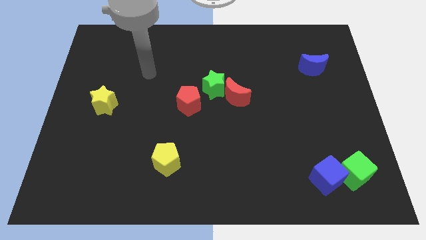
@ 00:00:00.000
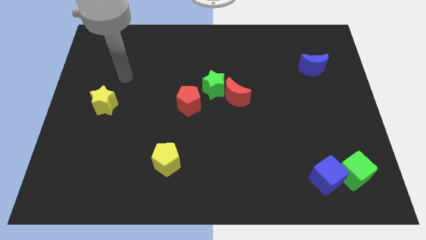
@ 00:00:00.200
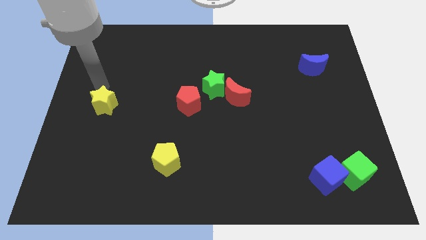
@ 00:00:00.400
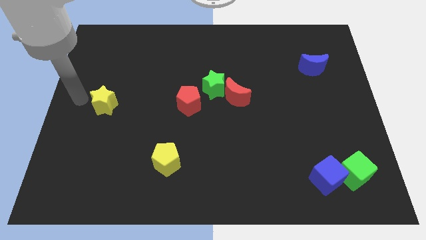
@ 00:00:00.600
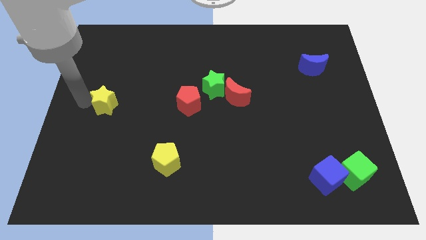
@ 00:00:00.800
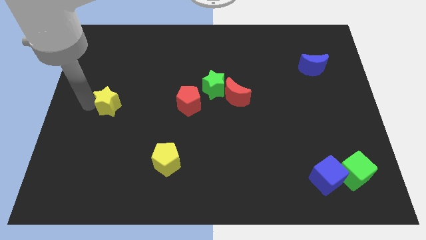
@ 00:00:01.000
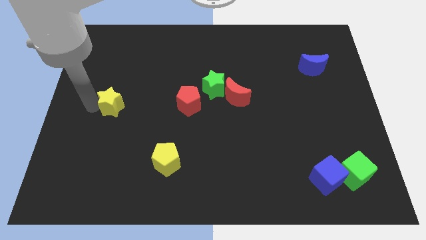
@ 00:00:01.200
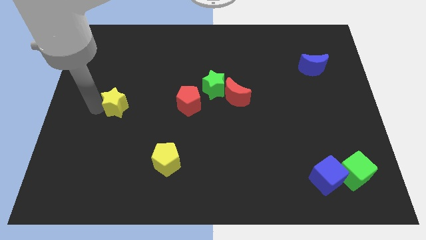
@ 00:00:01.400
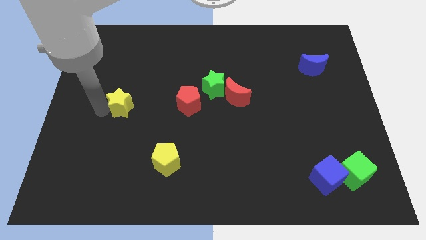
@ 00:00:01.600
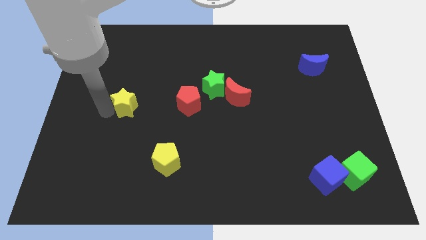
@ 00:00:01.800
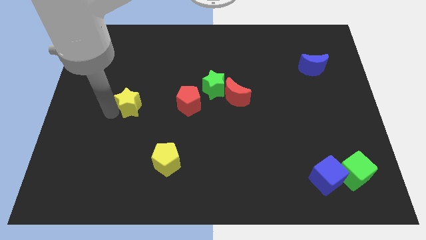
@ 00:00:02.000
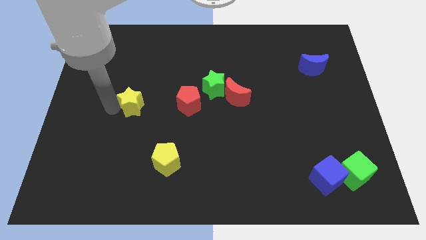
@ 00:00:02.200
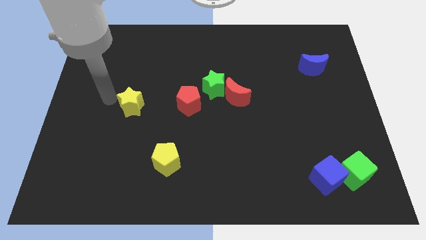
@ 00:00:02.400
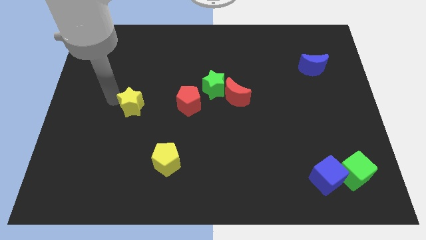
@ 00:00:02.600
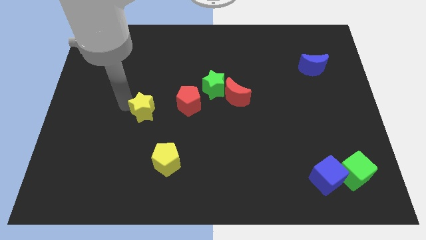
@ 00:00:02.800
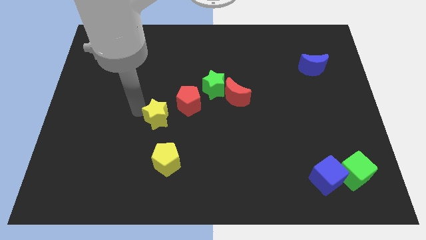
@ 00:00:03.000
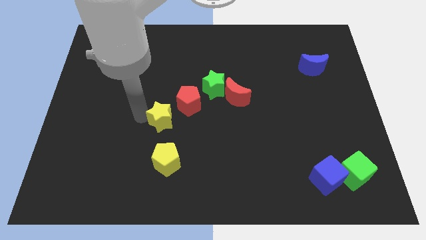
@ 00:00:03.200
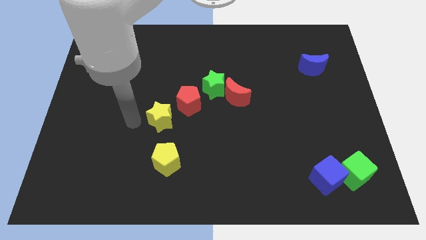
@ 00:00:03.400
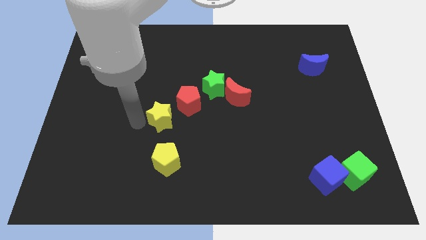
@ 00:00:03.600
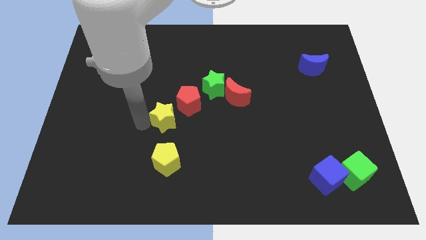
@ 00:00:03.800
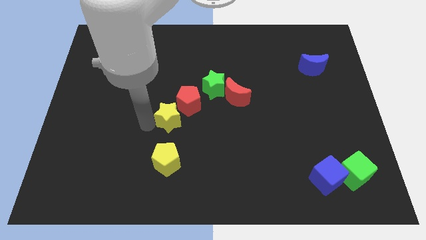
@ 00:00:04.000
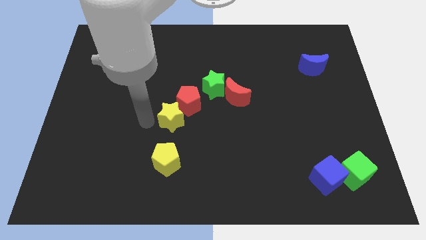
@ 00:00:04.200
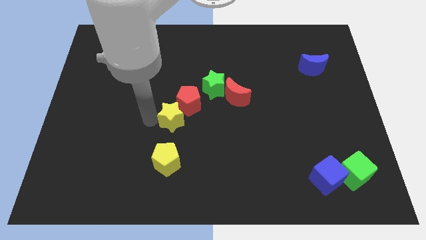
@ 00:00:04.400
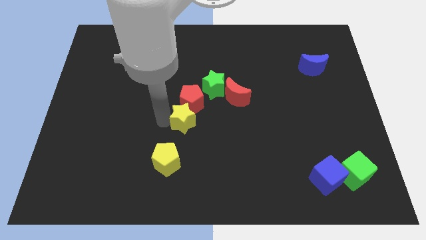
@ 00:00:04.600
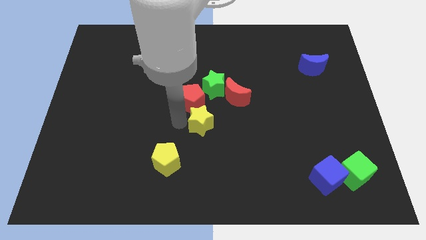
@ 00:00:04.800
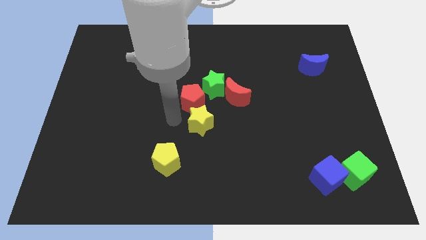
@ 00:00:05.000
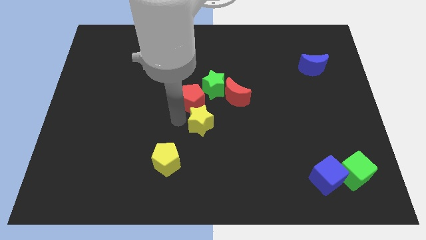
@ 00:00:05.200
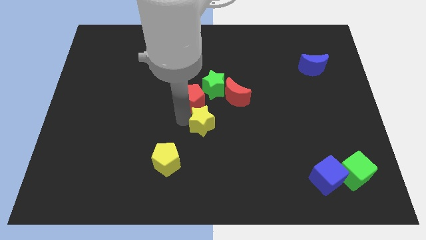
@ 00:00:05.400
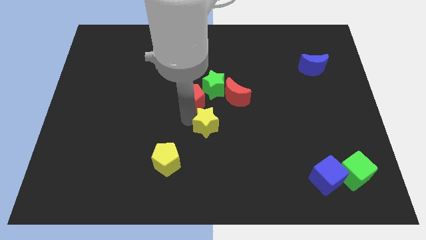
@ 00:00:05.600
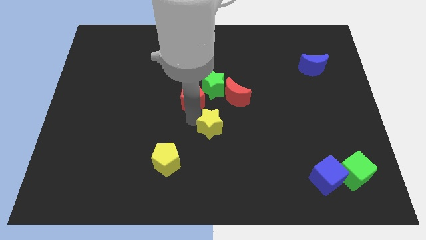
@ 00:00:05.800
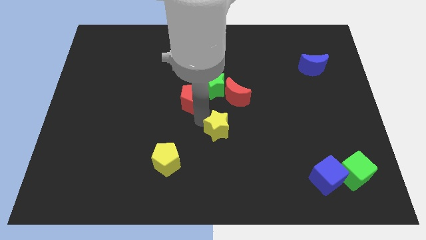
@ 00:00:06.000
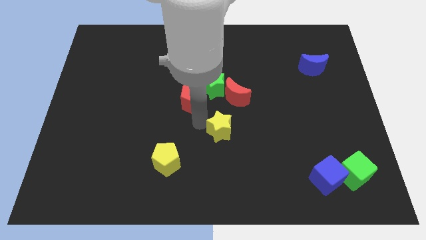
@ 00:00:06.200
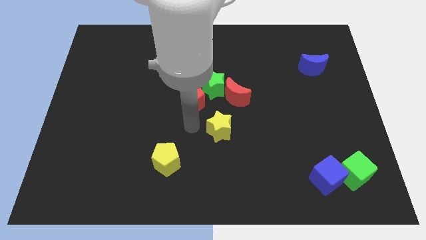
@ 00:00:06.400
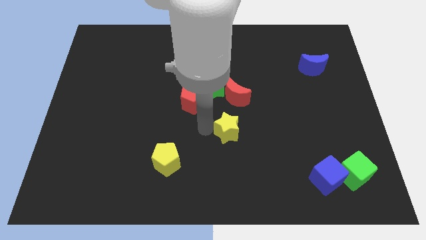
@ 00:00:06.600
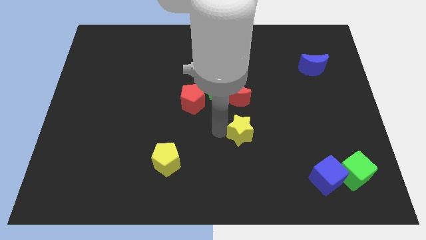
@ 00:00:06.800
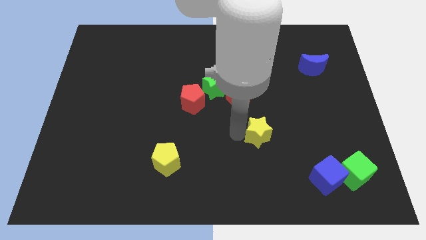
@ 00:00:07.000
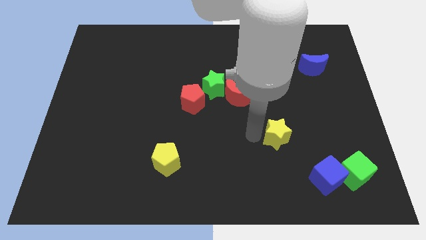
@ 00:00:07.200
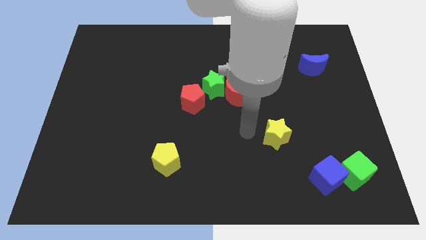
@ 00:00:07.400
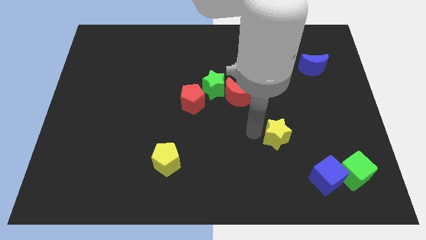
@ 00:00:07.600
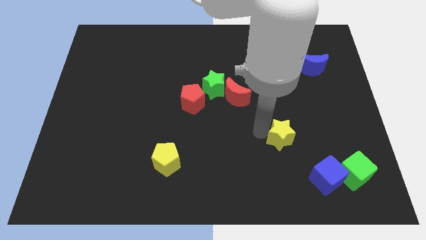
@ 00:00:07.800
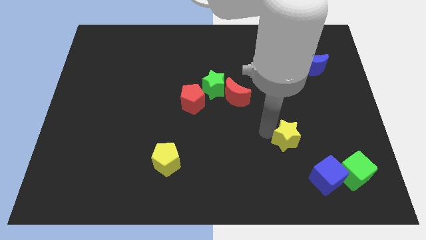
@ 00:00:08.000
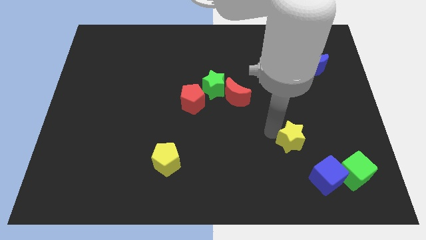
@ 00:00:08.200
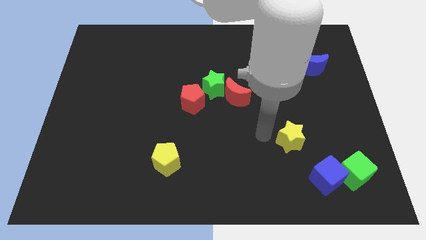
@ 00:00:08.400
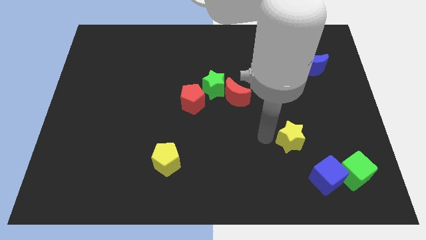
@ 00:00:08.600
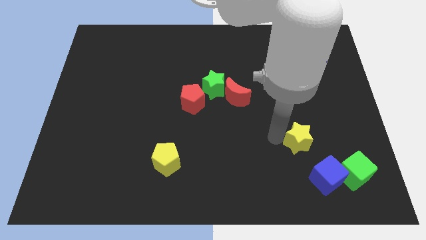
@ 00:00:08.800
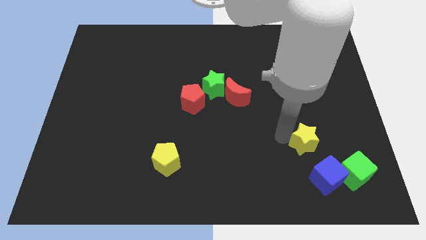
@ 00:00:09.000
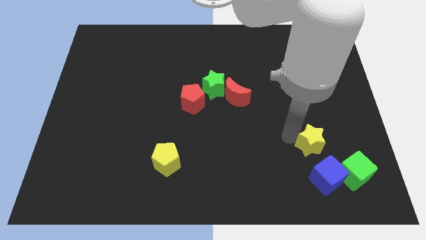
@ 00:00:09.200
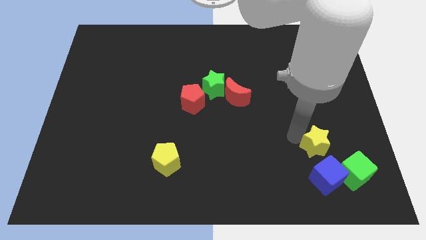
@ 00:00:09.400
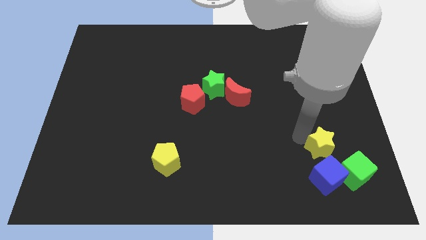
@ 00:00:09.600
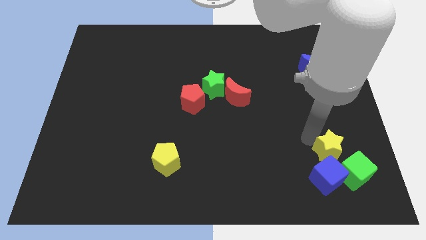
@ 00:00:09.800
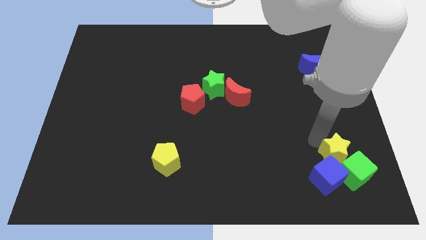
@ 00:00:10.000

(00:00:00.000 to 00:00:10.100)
slide the yellow star to the green cube

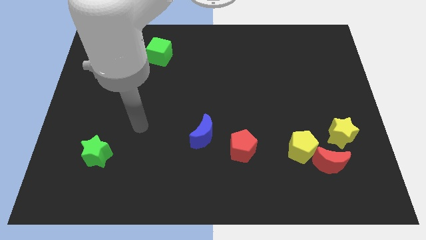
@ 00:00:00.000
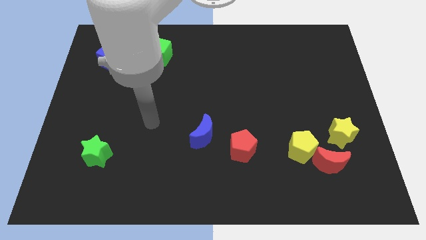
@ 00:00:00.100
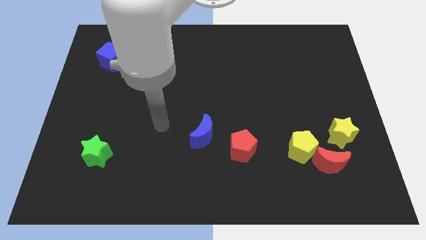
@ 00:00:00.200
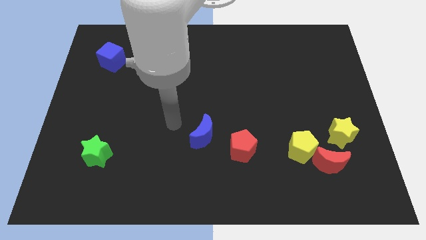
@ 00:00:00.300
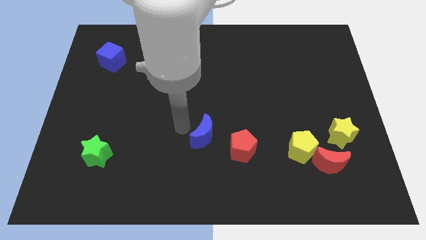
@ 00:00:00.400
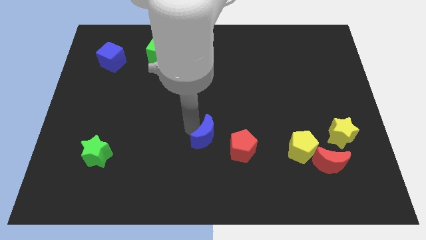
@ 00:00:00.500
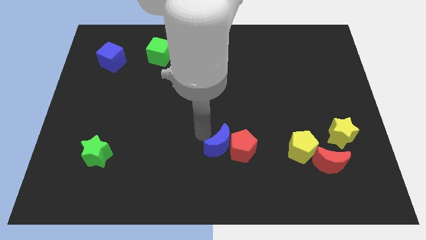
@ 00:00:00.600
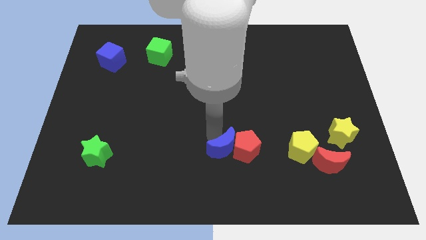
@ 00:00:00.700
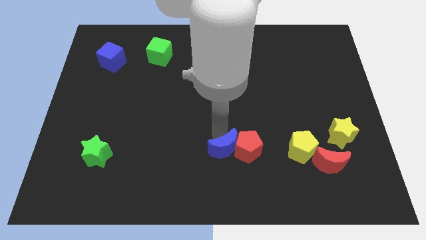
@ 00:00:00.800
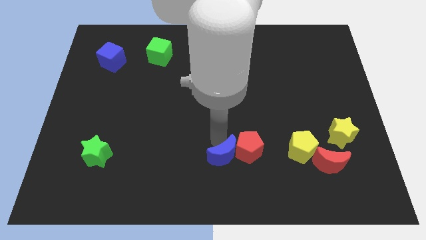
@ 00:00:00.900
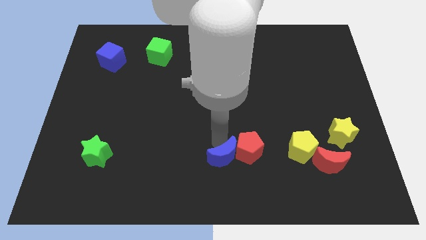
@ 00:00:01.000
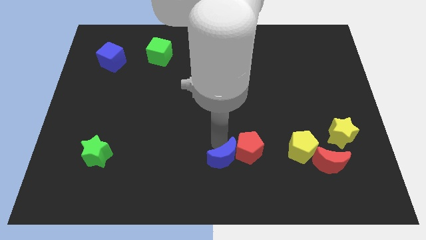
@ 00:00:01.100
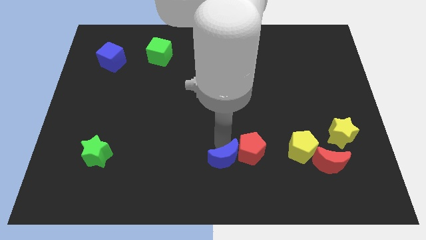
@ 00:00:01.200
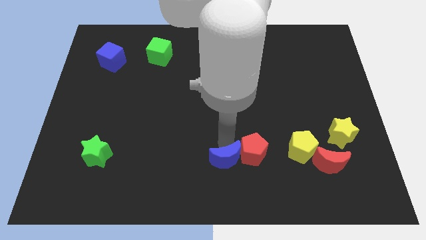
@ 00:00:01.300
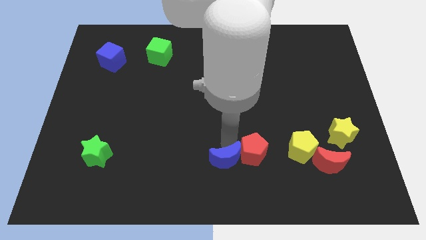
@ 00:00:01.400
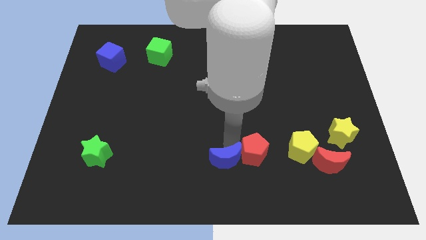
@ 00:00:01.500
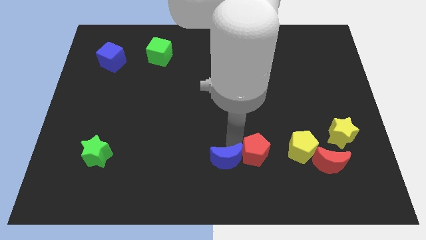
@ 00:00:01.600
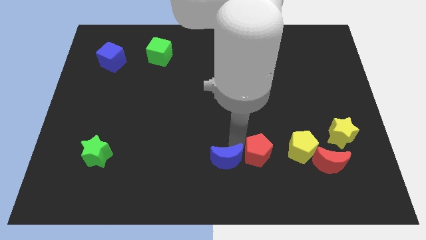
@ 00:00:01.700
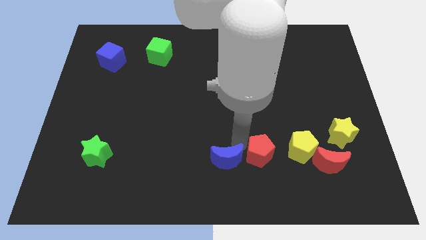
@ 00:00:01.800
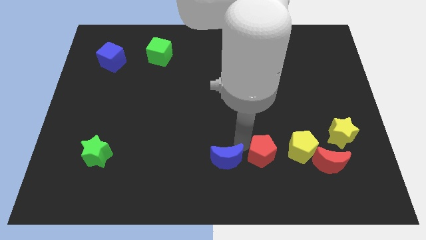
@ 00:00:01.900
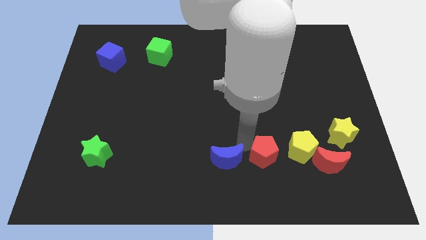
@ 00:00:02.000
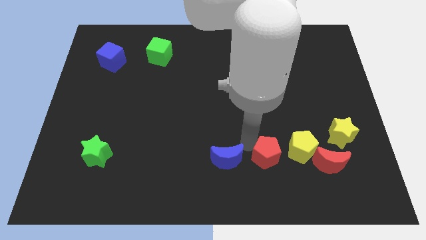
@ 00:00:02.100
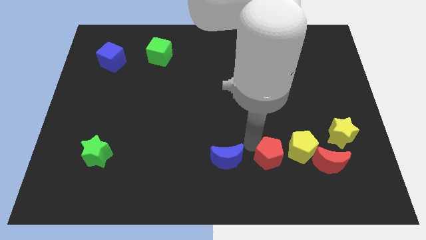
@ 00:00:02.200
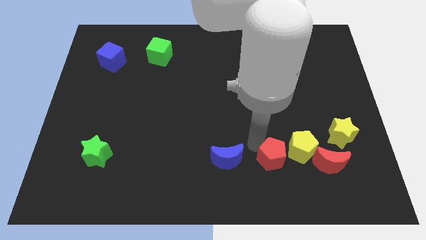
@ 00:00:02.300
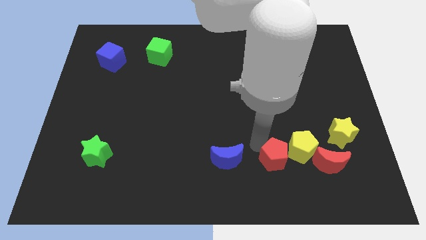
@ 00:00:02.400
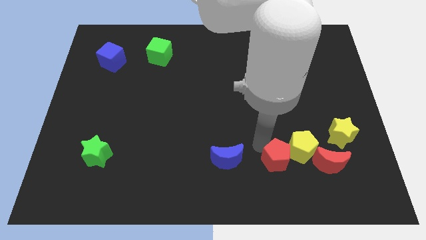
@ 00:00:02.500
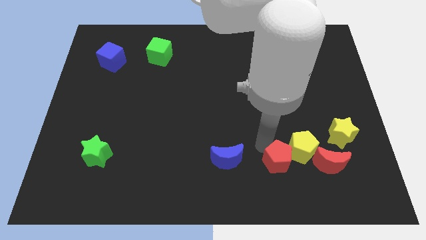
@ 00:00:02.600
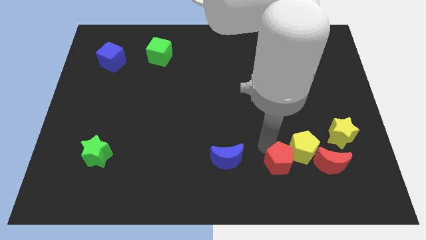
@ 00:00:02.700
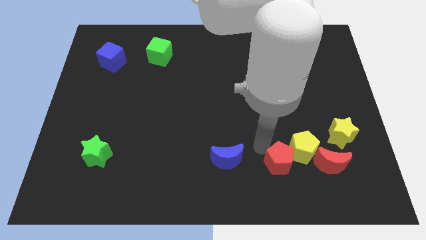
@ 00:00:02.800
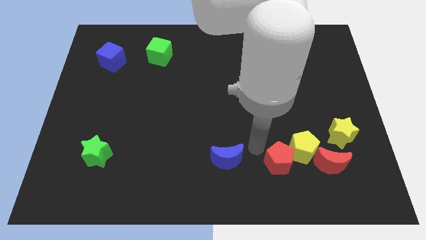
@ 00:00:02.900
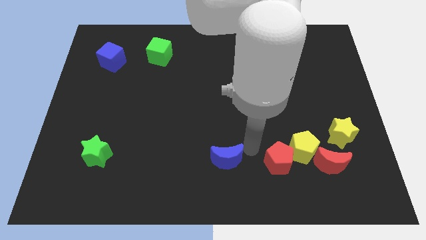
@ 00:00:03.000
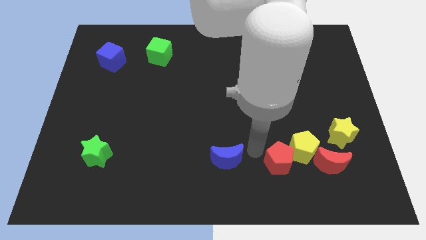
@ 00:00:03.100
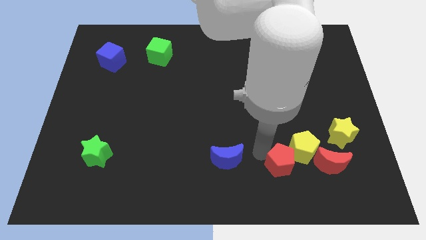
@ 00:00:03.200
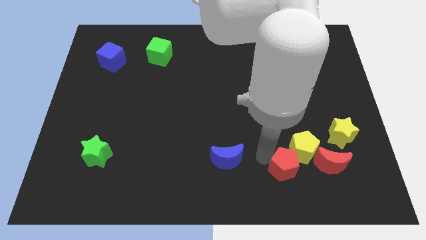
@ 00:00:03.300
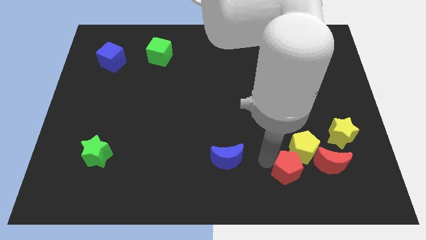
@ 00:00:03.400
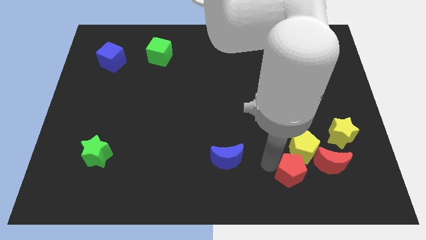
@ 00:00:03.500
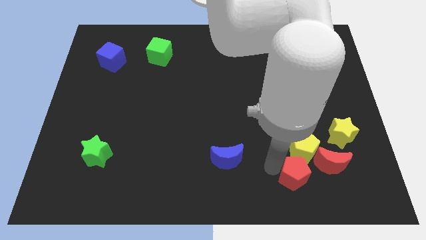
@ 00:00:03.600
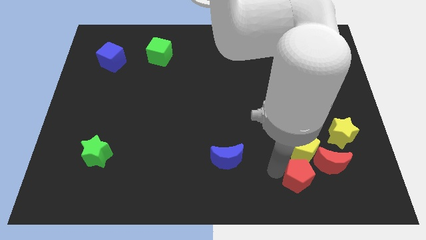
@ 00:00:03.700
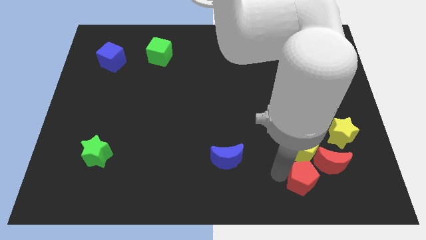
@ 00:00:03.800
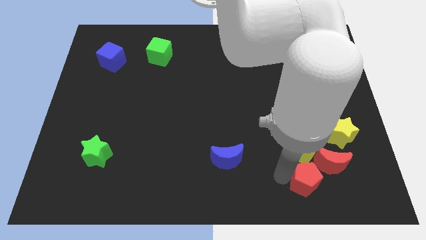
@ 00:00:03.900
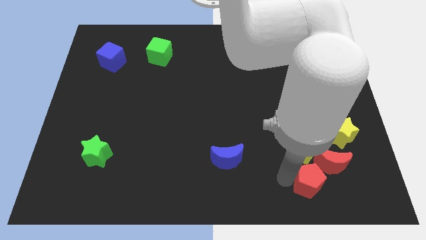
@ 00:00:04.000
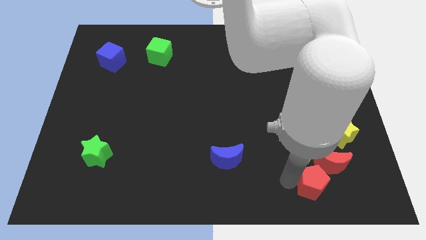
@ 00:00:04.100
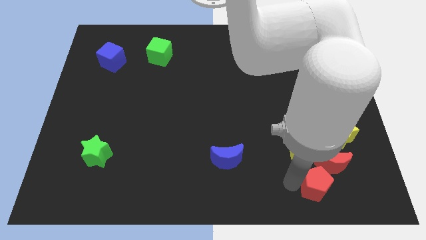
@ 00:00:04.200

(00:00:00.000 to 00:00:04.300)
push the red pentagon towards the red moon
